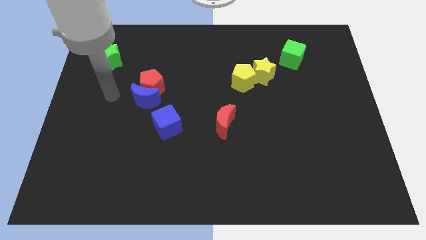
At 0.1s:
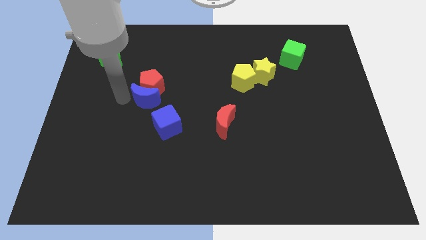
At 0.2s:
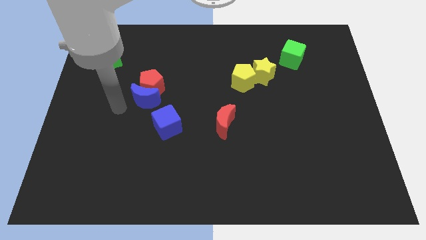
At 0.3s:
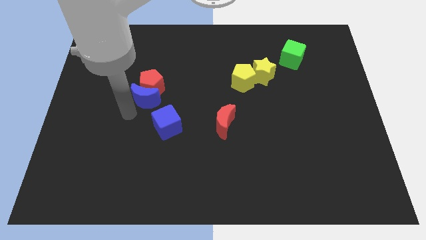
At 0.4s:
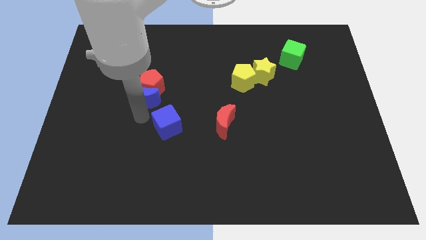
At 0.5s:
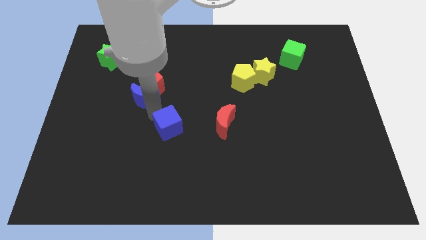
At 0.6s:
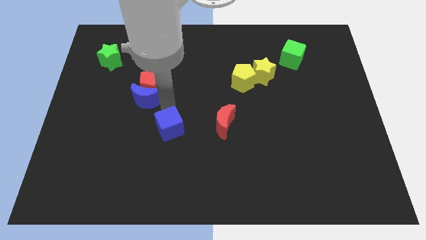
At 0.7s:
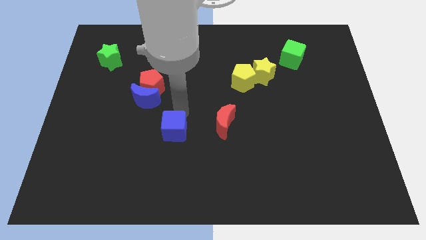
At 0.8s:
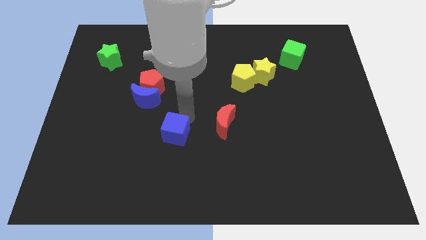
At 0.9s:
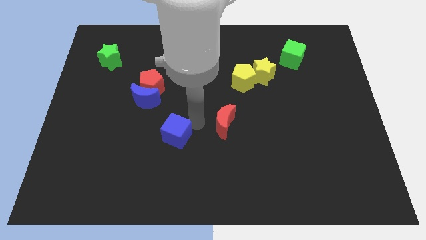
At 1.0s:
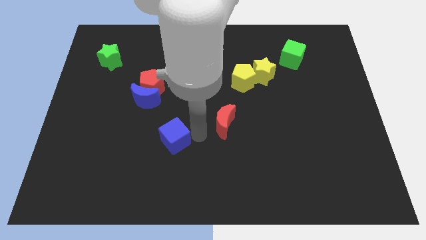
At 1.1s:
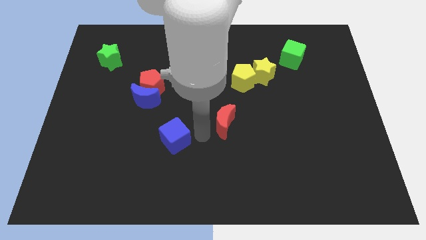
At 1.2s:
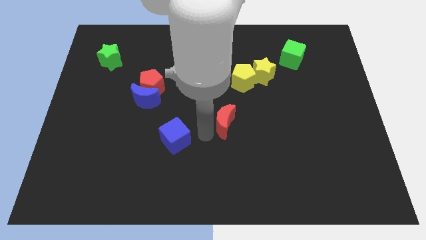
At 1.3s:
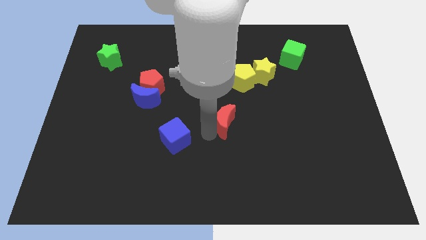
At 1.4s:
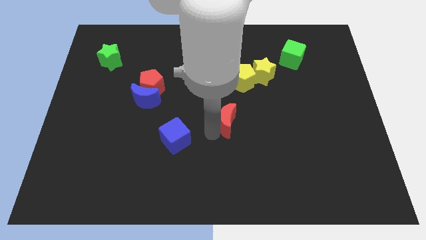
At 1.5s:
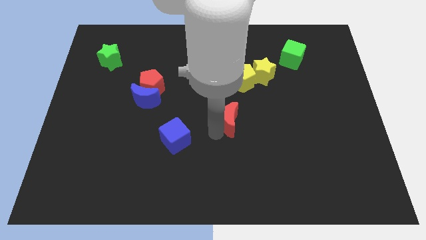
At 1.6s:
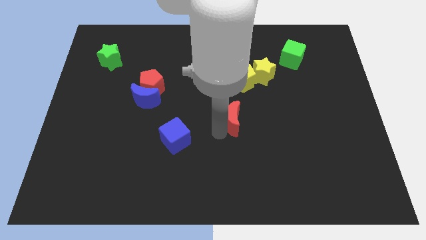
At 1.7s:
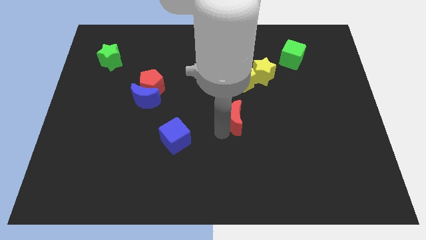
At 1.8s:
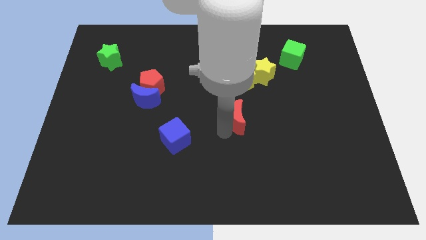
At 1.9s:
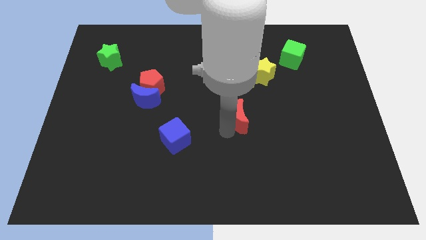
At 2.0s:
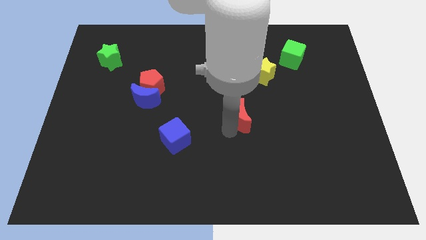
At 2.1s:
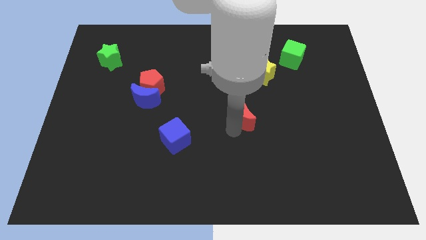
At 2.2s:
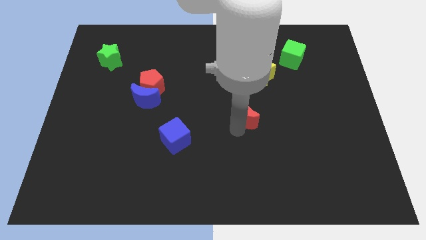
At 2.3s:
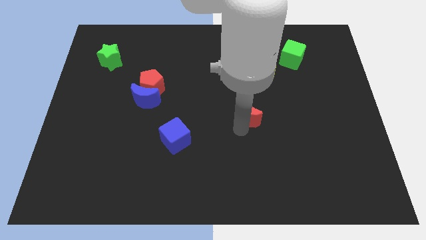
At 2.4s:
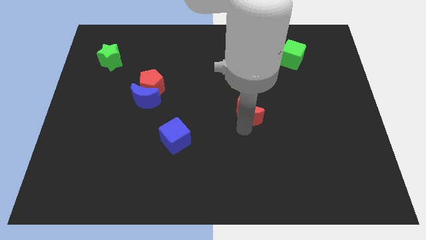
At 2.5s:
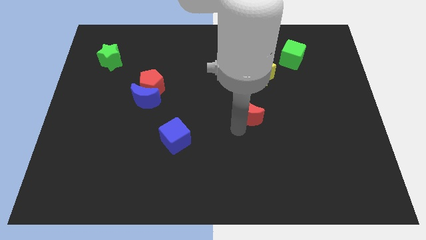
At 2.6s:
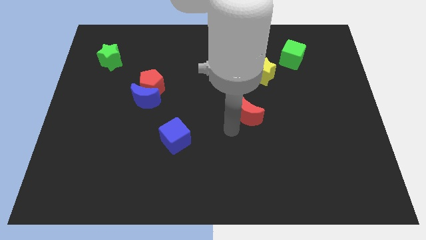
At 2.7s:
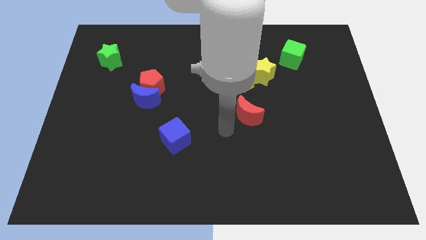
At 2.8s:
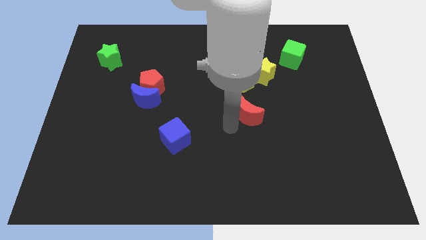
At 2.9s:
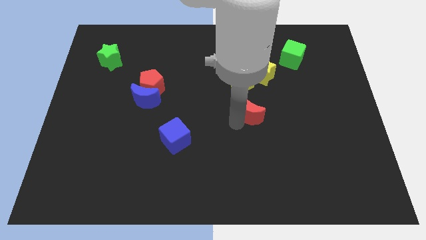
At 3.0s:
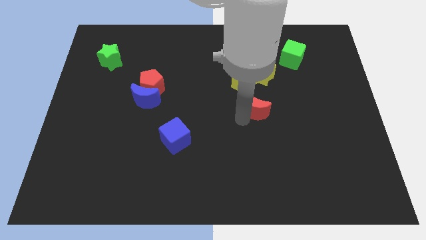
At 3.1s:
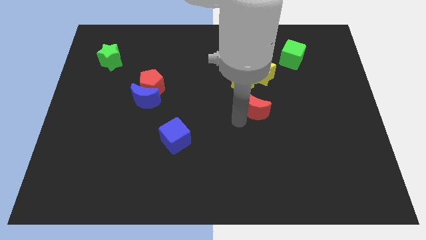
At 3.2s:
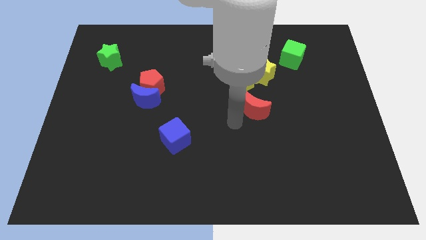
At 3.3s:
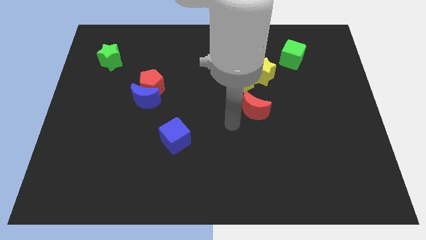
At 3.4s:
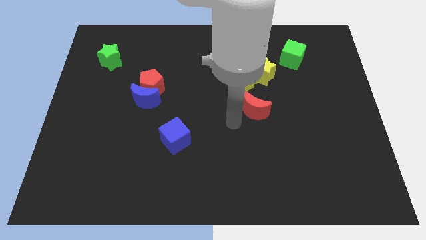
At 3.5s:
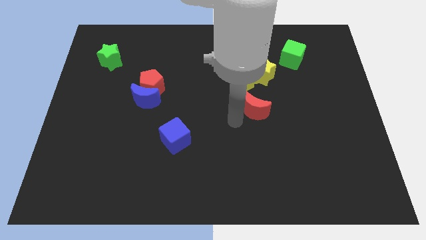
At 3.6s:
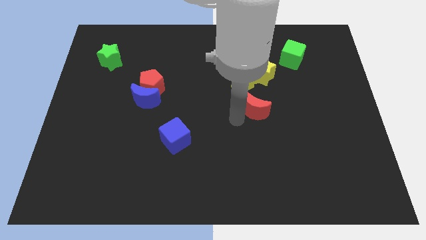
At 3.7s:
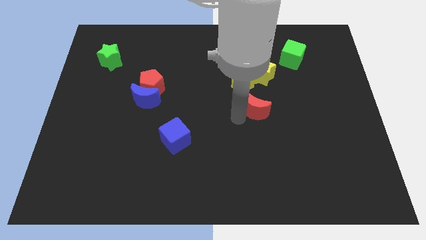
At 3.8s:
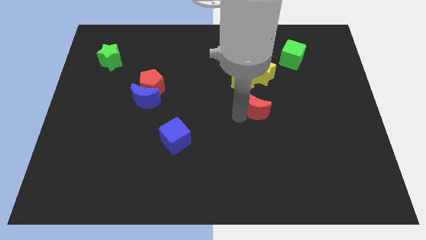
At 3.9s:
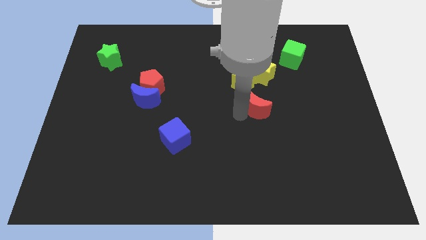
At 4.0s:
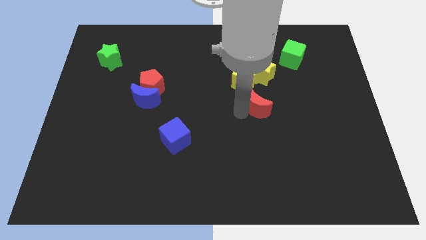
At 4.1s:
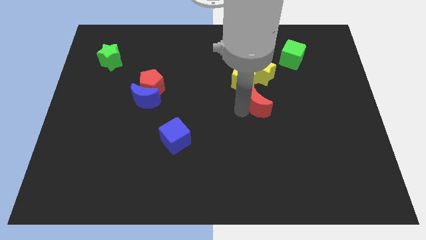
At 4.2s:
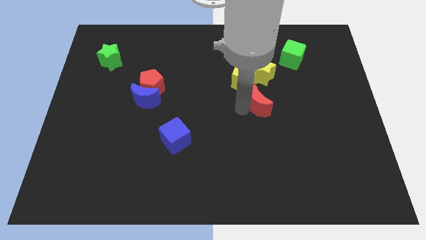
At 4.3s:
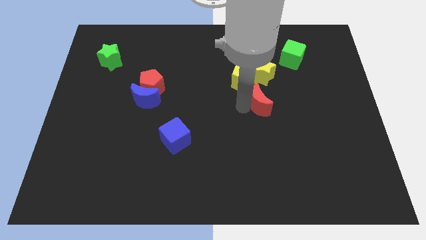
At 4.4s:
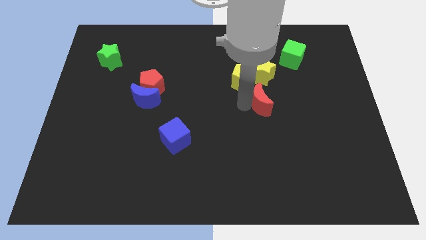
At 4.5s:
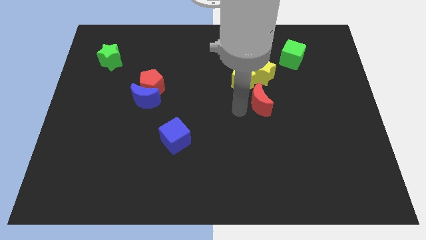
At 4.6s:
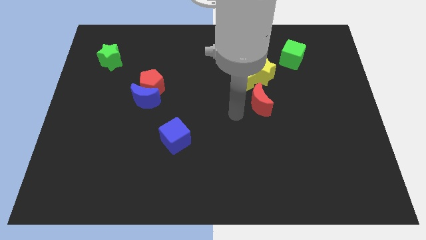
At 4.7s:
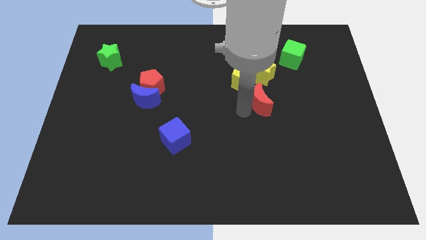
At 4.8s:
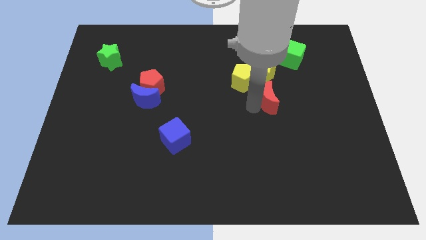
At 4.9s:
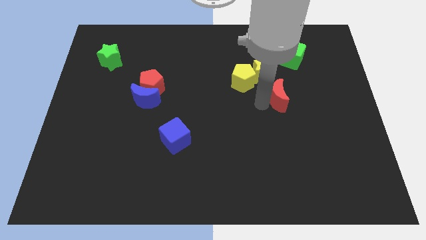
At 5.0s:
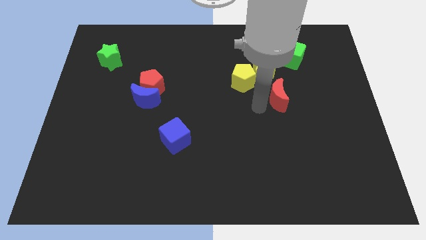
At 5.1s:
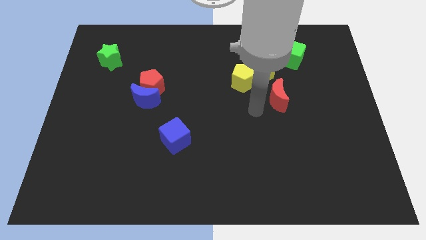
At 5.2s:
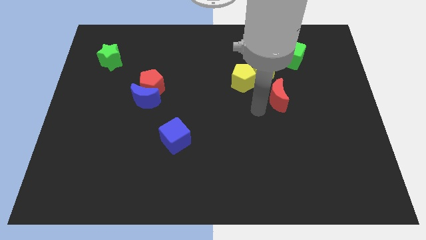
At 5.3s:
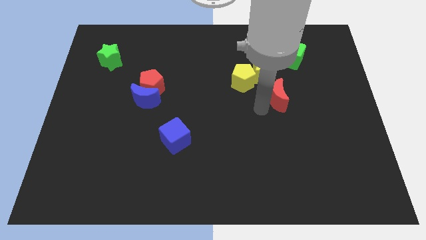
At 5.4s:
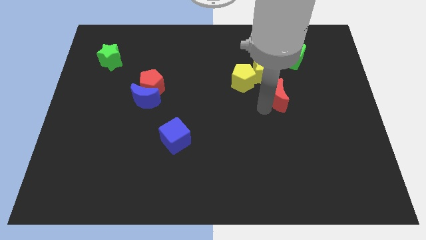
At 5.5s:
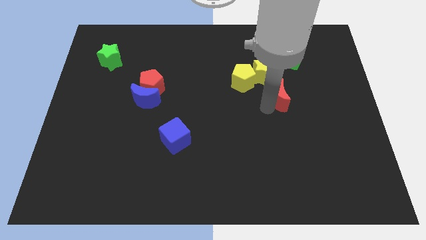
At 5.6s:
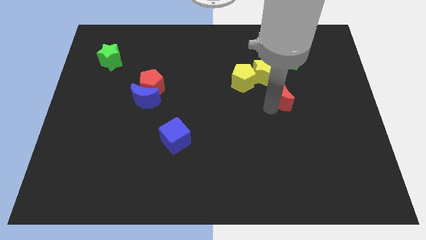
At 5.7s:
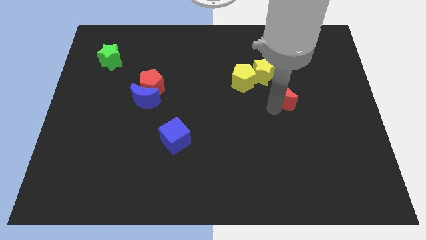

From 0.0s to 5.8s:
push the red moon below the green cube

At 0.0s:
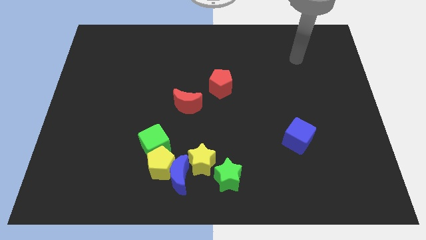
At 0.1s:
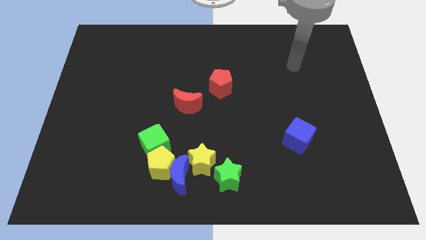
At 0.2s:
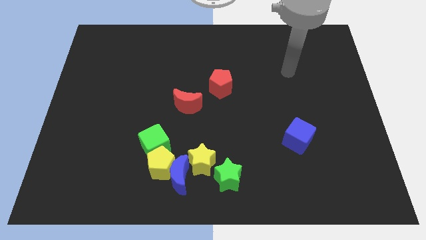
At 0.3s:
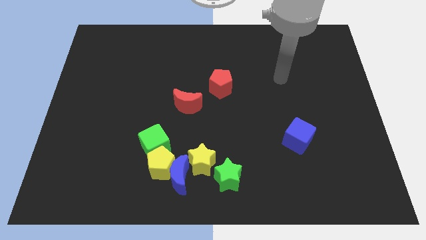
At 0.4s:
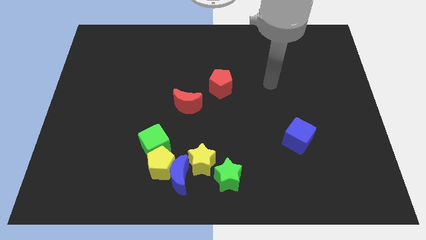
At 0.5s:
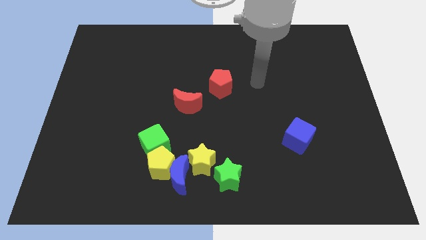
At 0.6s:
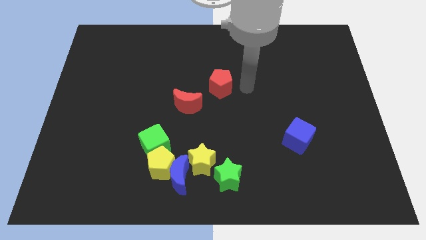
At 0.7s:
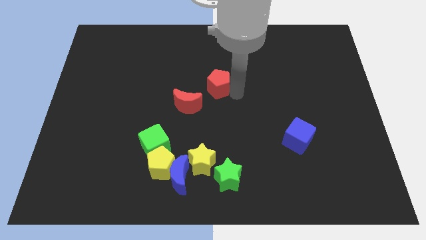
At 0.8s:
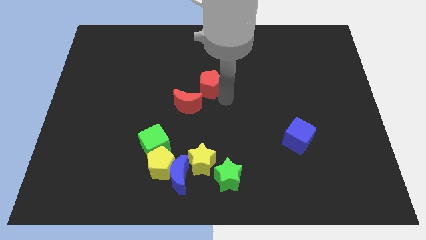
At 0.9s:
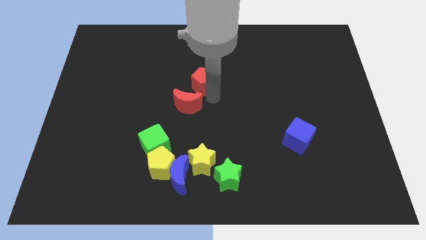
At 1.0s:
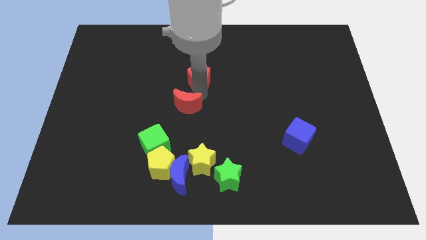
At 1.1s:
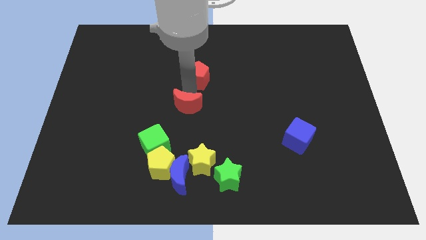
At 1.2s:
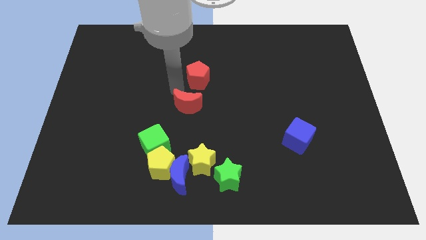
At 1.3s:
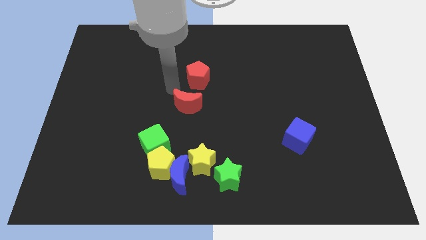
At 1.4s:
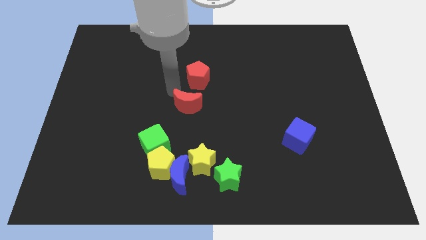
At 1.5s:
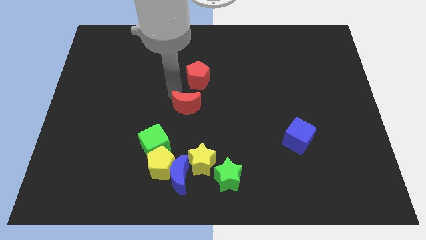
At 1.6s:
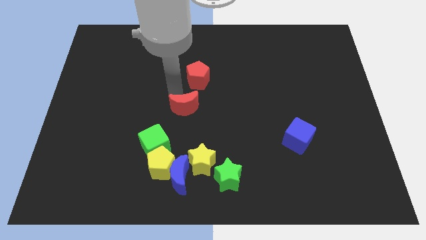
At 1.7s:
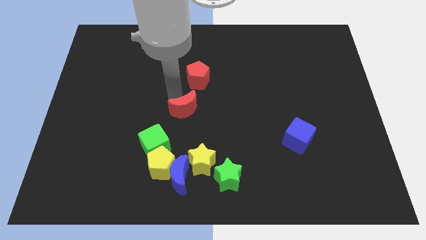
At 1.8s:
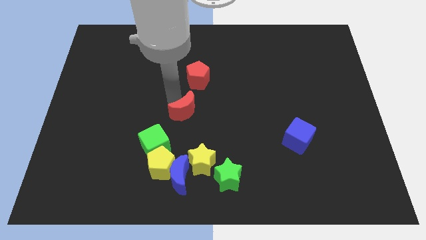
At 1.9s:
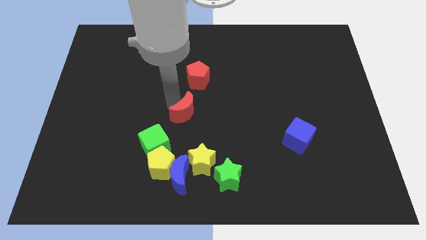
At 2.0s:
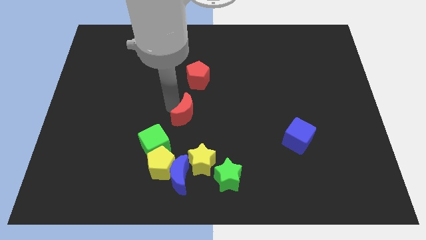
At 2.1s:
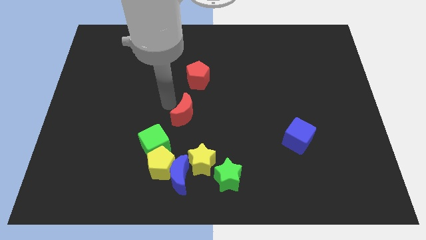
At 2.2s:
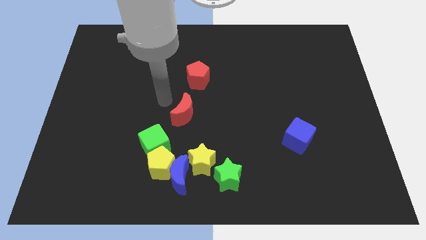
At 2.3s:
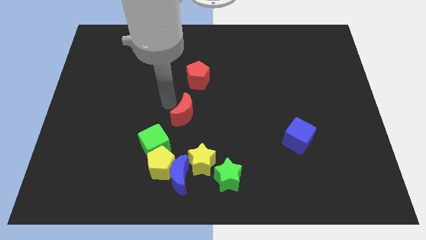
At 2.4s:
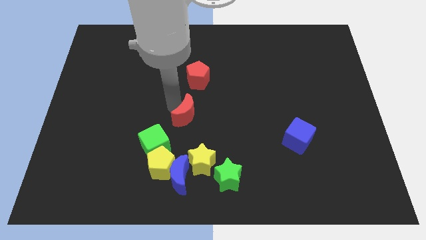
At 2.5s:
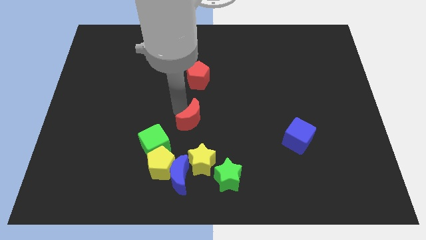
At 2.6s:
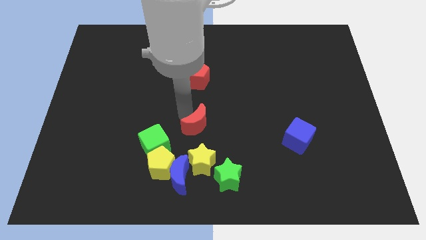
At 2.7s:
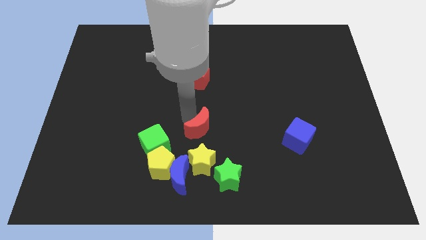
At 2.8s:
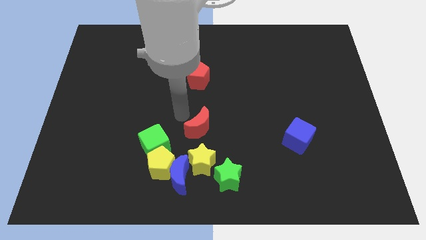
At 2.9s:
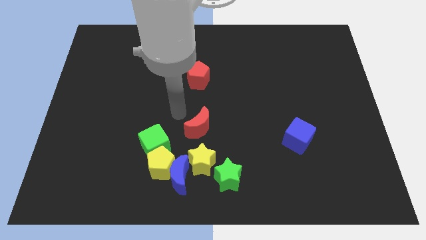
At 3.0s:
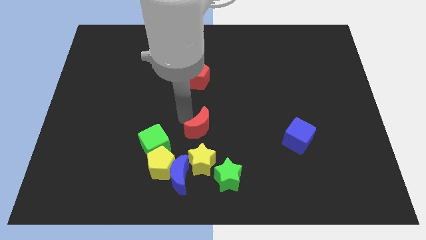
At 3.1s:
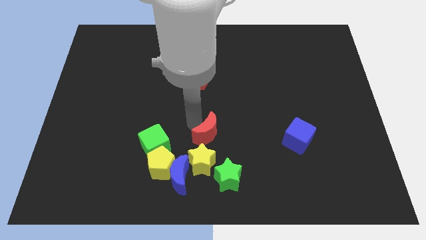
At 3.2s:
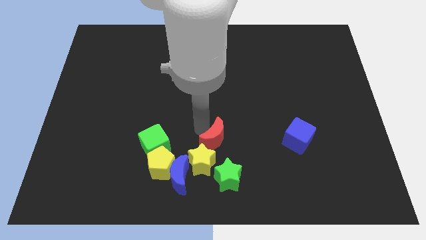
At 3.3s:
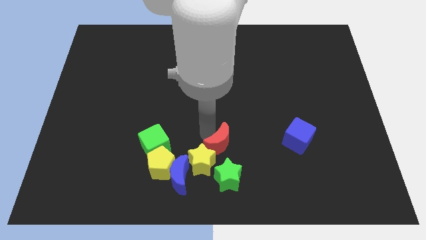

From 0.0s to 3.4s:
put the red moon right of the yellow star
